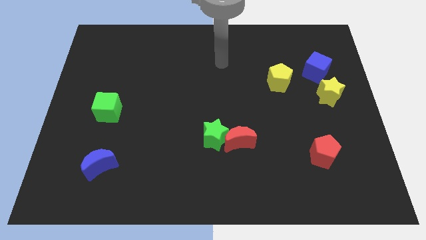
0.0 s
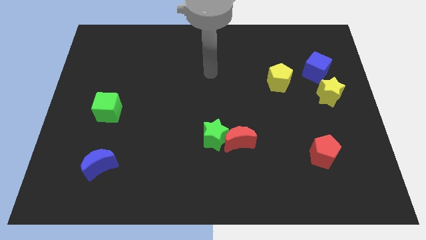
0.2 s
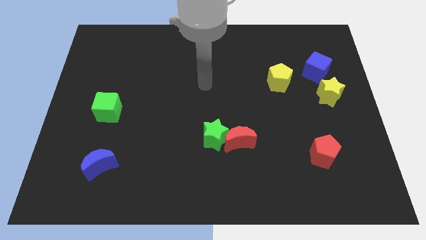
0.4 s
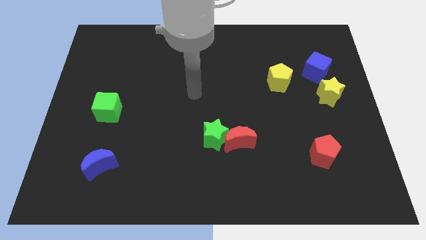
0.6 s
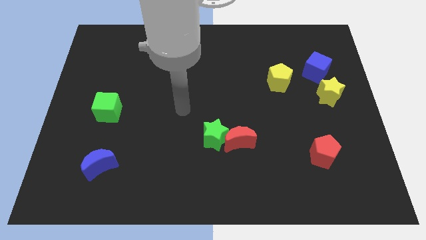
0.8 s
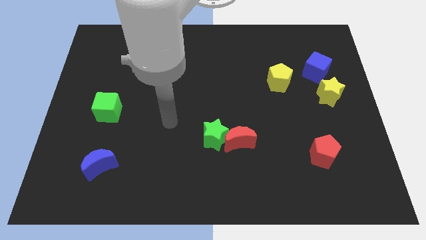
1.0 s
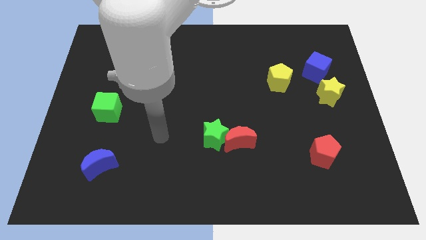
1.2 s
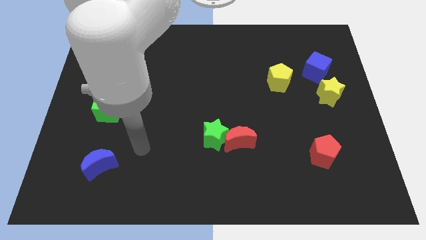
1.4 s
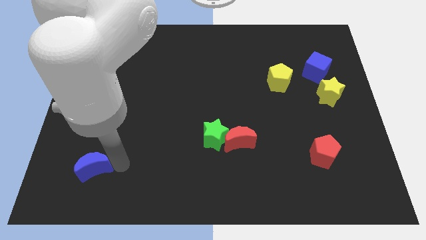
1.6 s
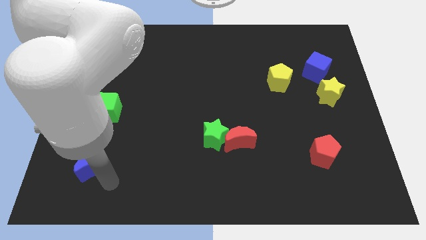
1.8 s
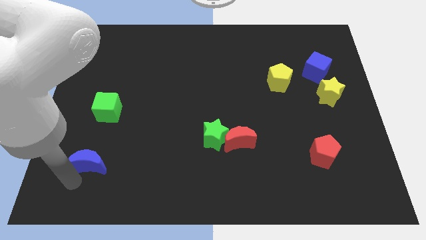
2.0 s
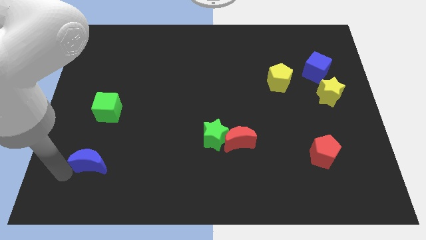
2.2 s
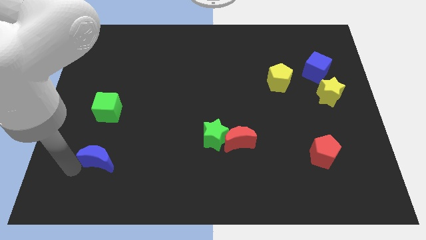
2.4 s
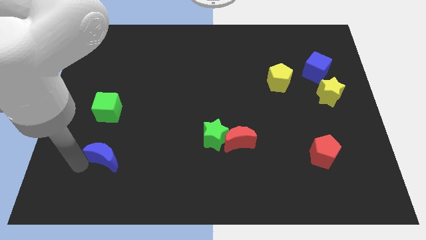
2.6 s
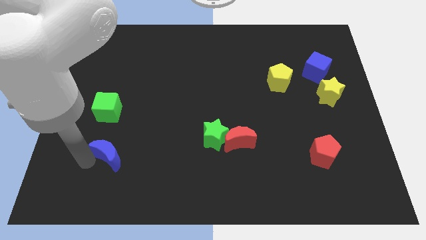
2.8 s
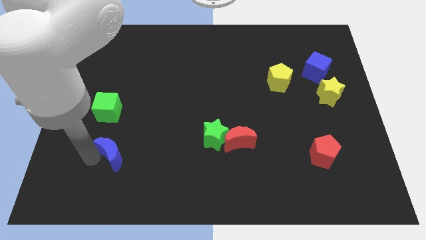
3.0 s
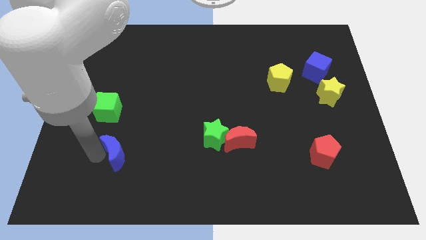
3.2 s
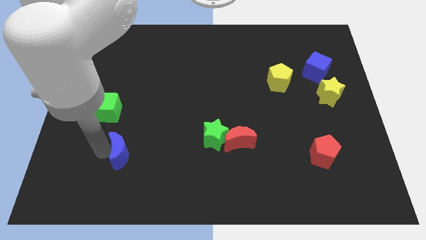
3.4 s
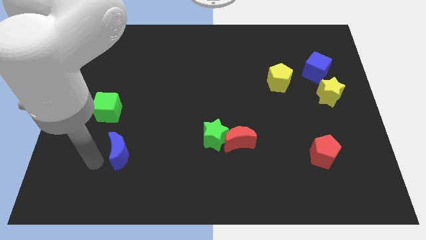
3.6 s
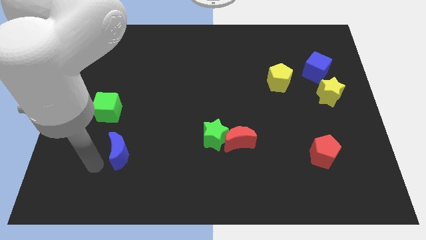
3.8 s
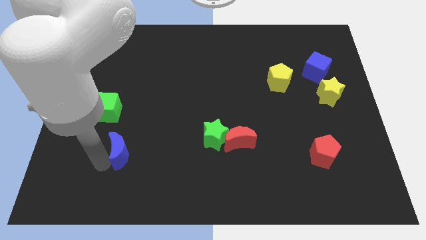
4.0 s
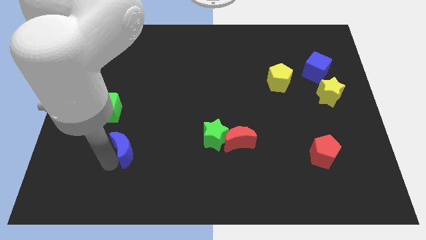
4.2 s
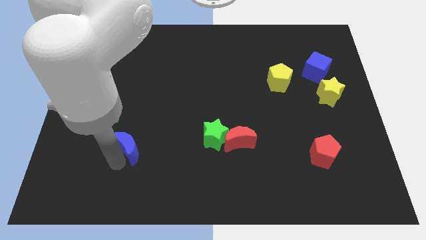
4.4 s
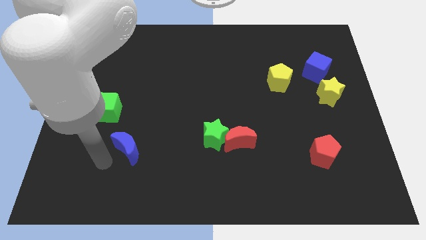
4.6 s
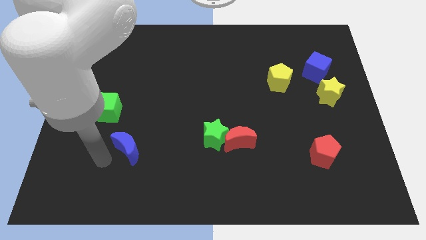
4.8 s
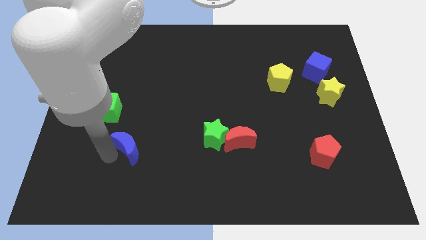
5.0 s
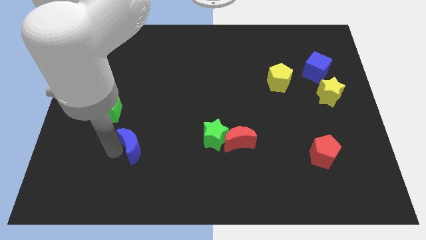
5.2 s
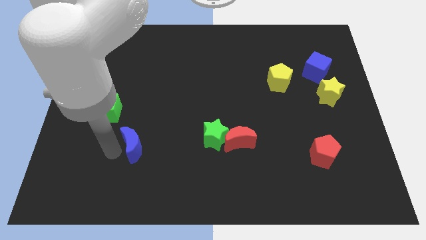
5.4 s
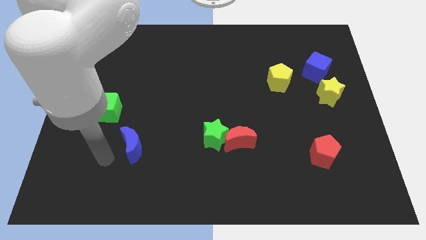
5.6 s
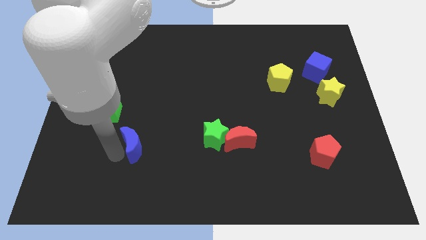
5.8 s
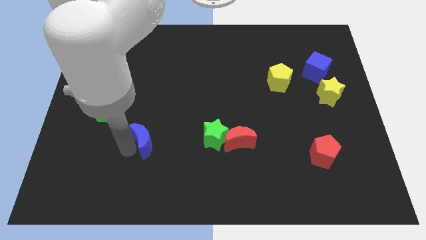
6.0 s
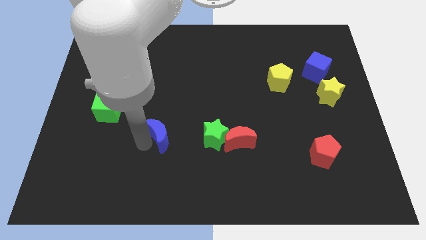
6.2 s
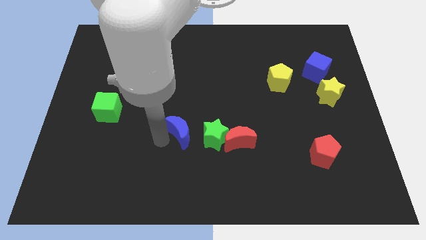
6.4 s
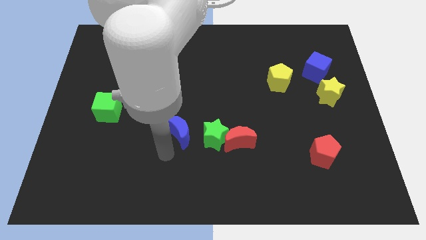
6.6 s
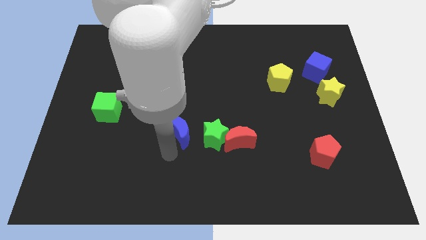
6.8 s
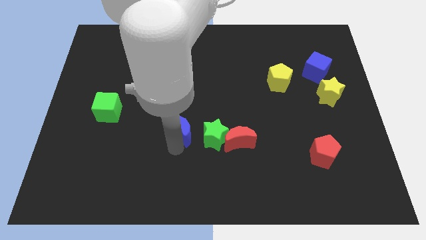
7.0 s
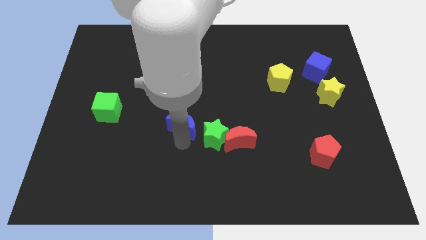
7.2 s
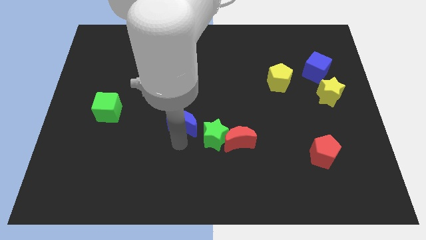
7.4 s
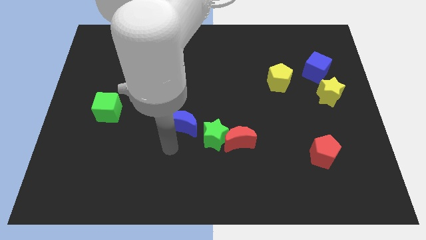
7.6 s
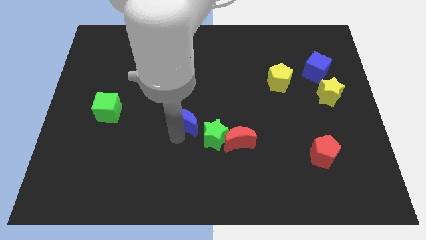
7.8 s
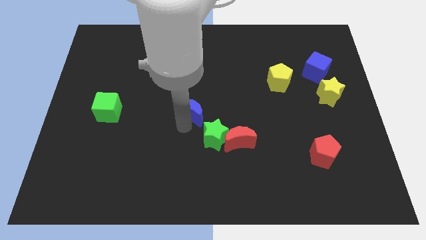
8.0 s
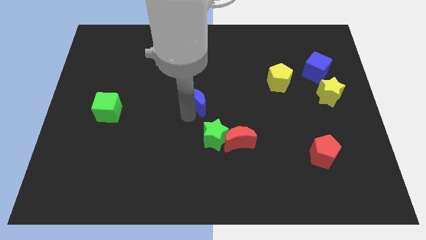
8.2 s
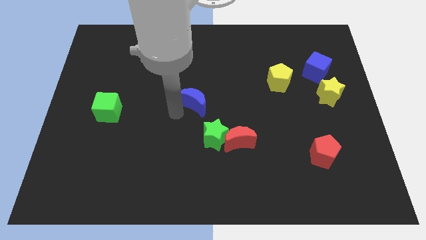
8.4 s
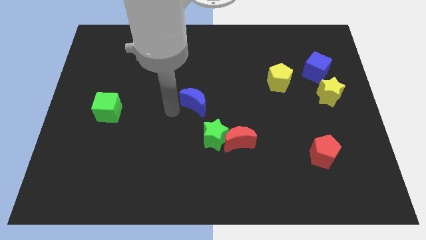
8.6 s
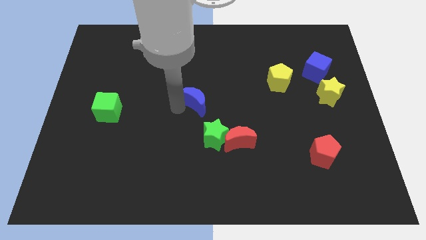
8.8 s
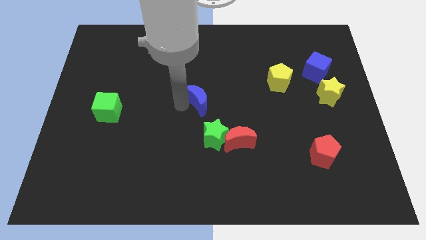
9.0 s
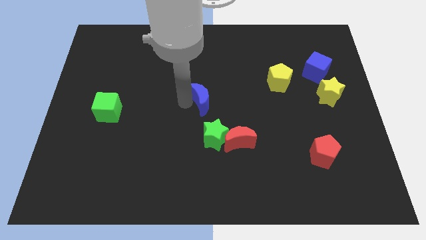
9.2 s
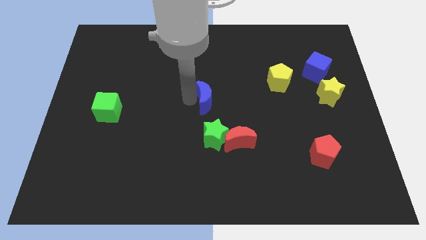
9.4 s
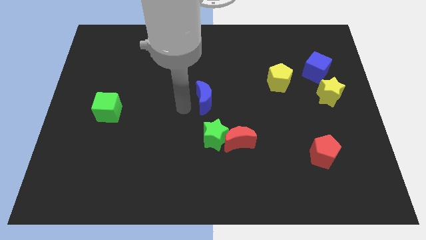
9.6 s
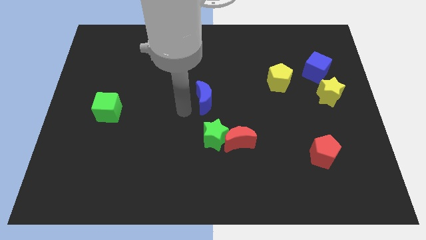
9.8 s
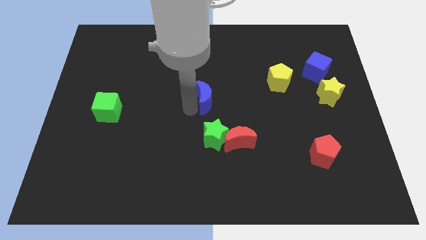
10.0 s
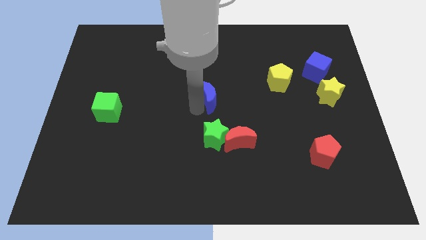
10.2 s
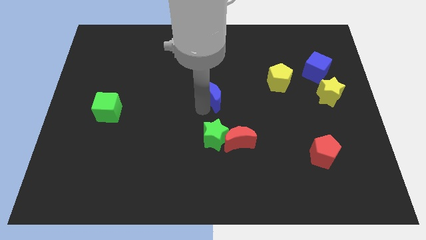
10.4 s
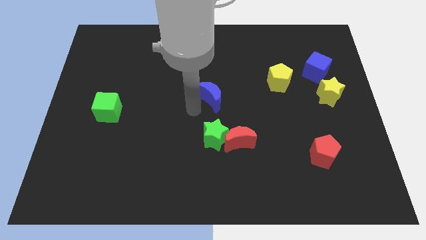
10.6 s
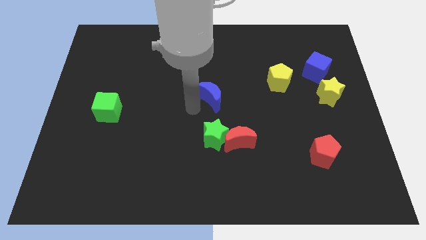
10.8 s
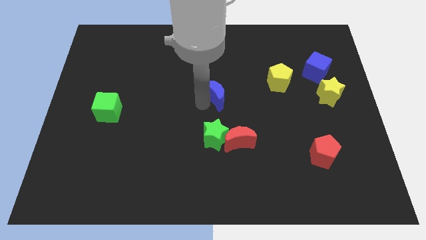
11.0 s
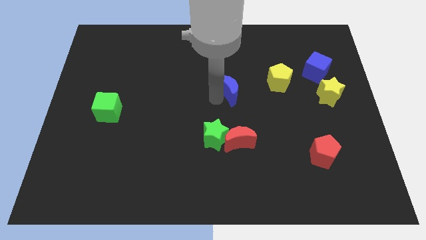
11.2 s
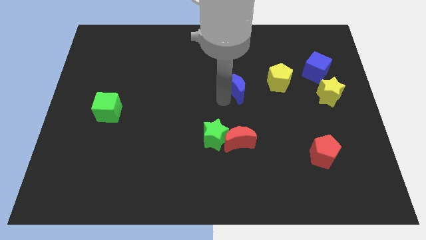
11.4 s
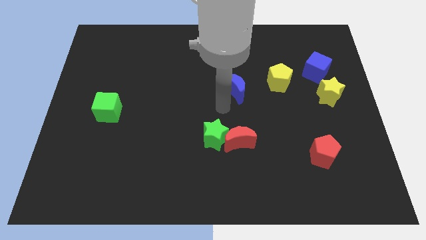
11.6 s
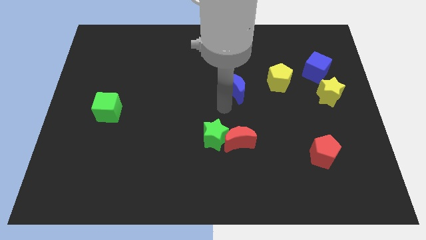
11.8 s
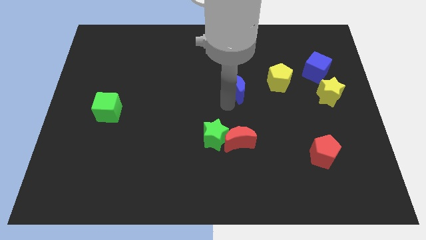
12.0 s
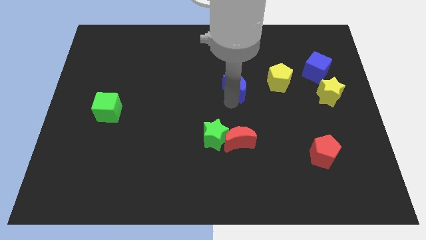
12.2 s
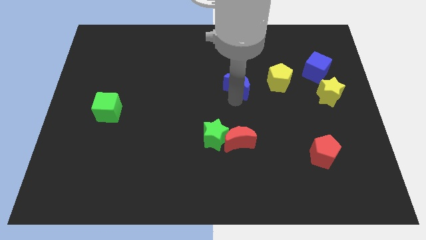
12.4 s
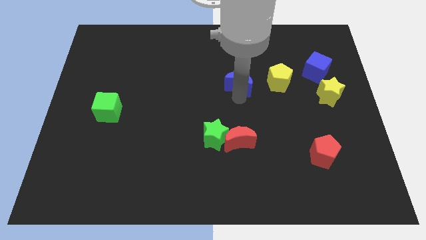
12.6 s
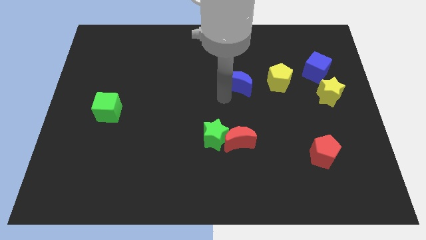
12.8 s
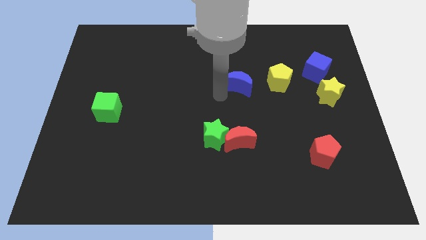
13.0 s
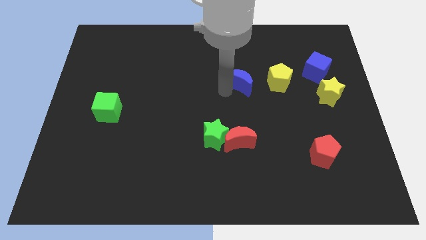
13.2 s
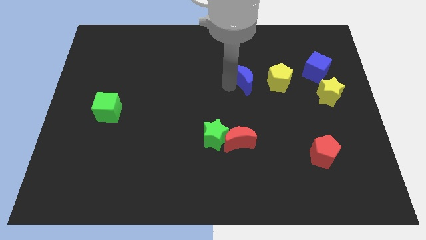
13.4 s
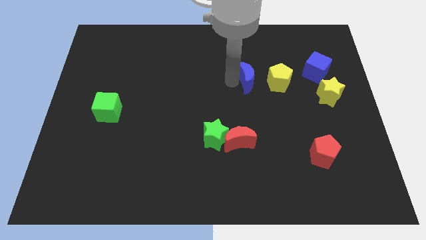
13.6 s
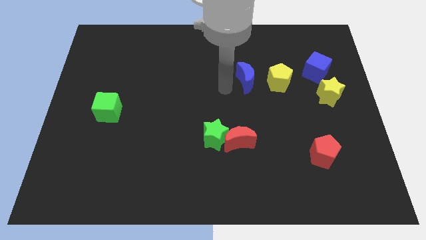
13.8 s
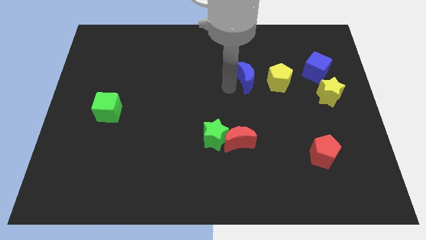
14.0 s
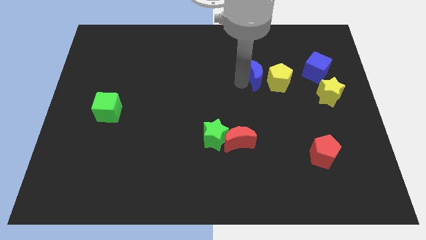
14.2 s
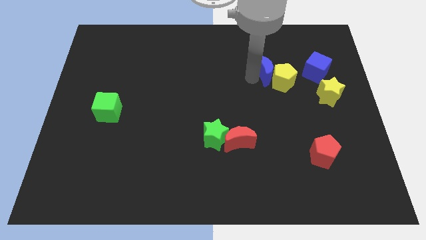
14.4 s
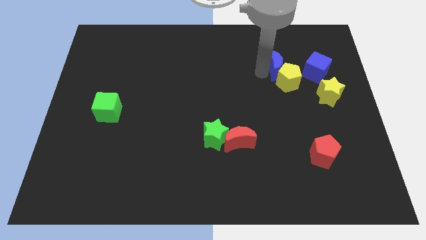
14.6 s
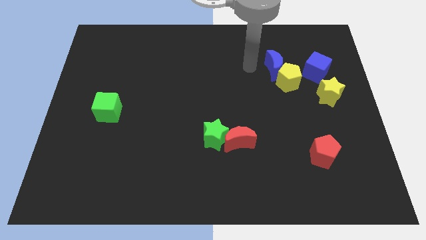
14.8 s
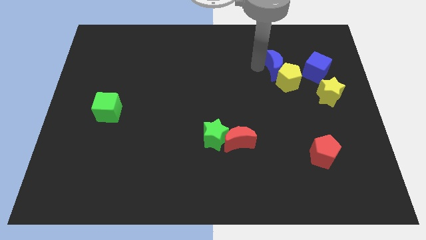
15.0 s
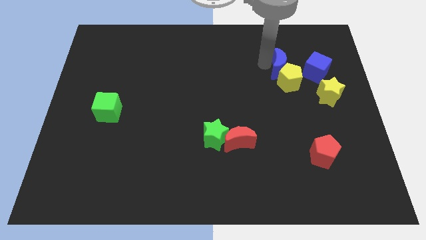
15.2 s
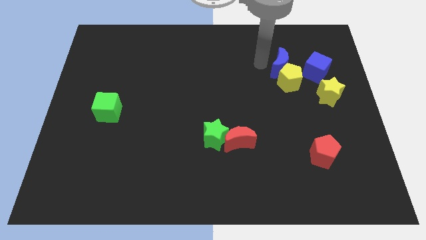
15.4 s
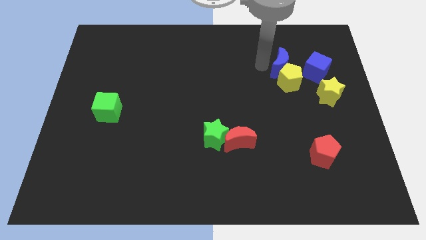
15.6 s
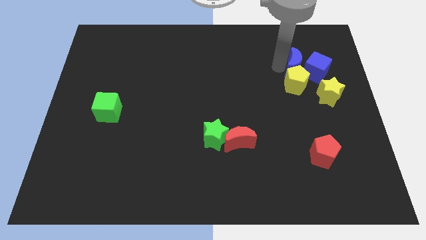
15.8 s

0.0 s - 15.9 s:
put the blue moon close to the blue cube
